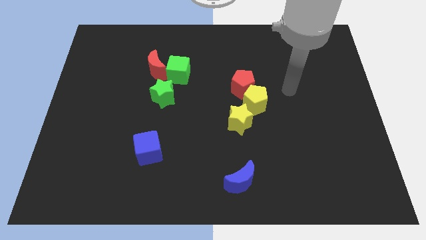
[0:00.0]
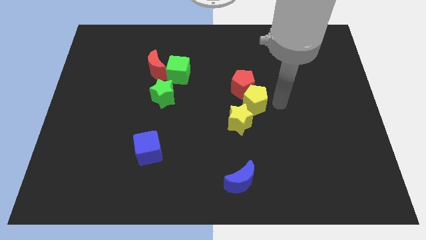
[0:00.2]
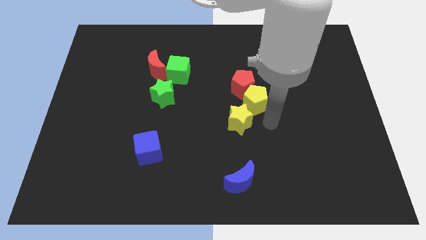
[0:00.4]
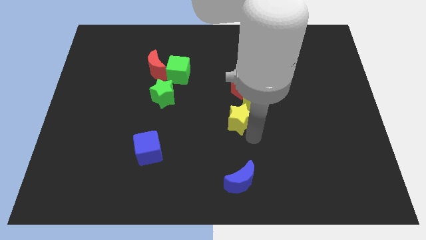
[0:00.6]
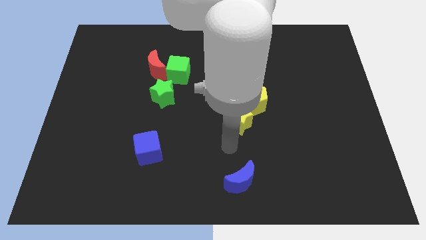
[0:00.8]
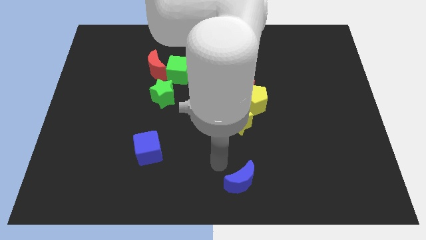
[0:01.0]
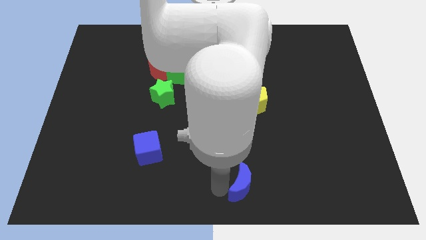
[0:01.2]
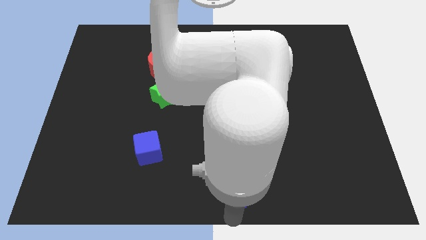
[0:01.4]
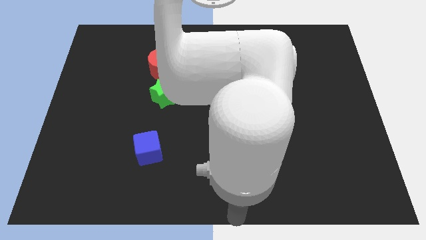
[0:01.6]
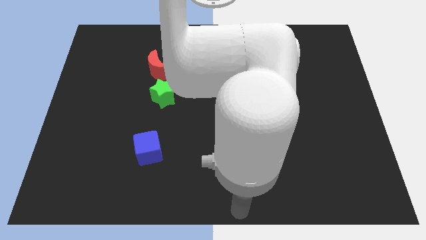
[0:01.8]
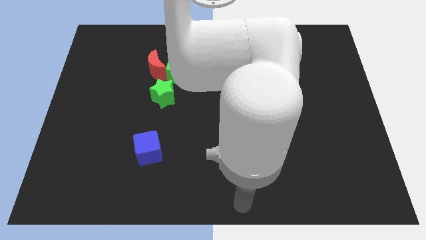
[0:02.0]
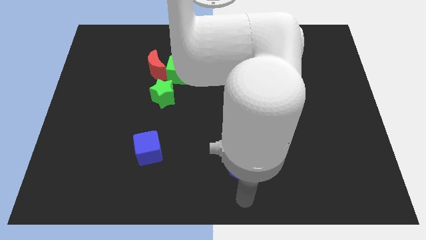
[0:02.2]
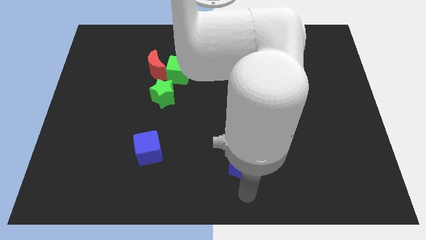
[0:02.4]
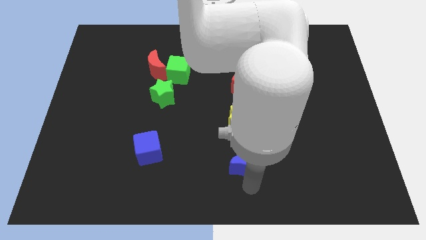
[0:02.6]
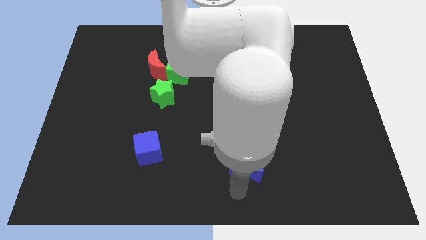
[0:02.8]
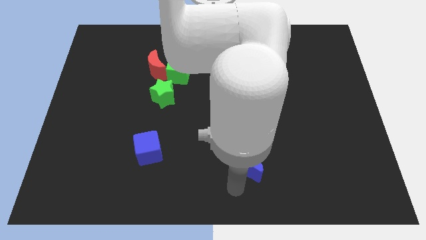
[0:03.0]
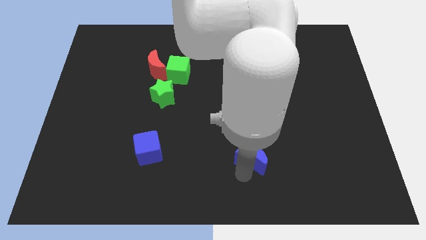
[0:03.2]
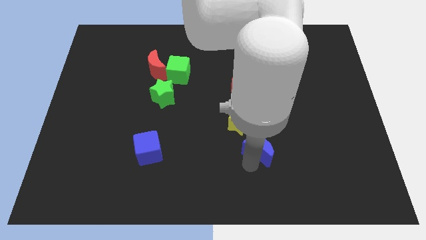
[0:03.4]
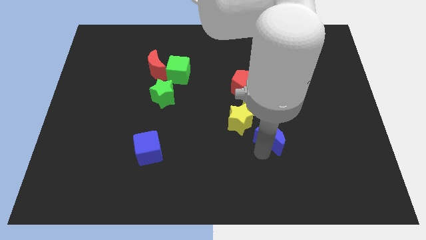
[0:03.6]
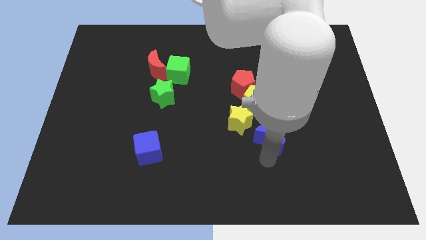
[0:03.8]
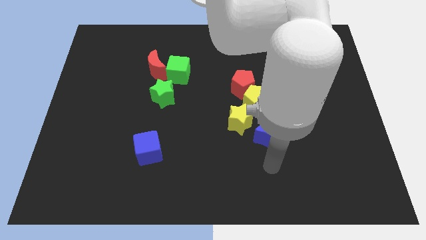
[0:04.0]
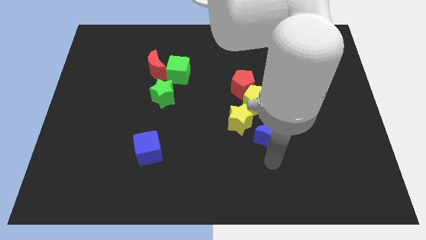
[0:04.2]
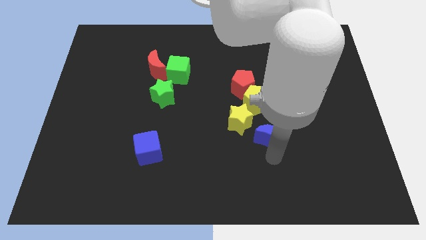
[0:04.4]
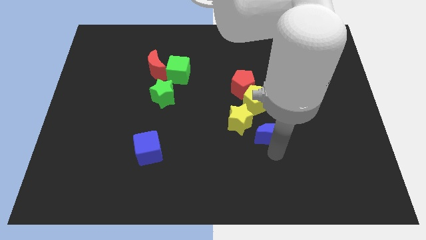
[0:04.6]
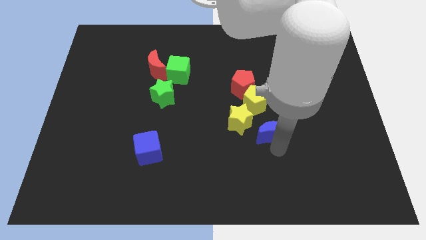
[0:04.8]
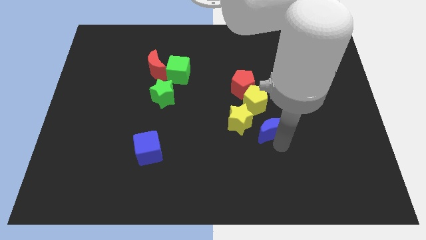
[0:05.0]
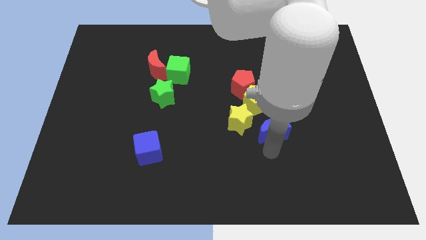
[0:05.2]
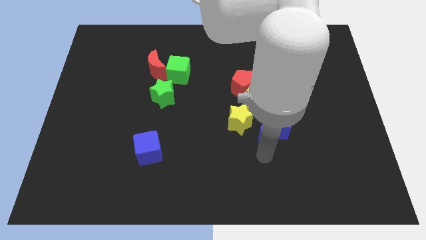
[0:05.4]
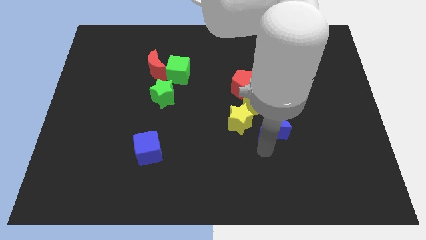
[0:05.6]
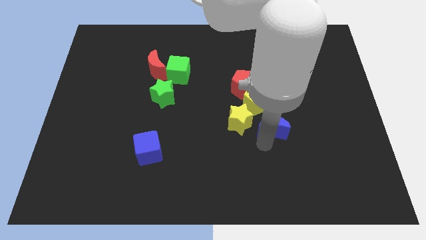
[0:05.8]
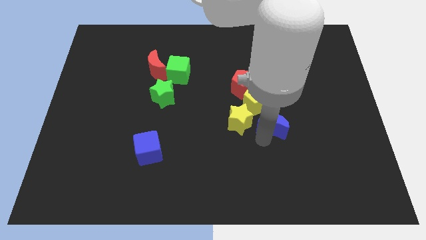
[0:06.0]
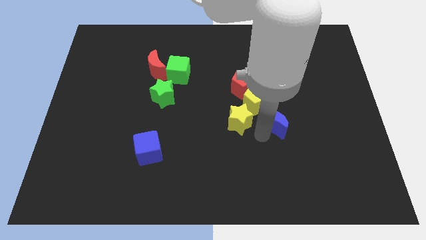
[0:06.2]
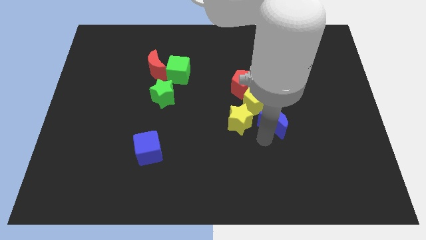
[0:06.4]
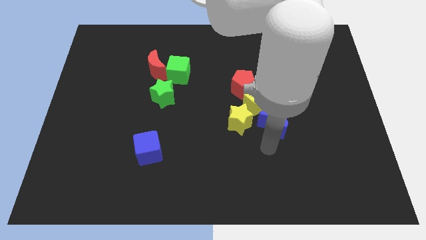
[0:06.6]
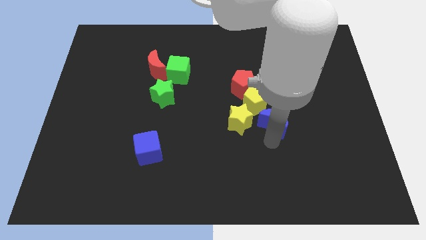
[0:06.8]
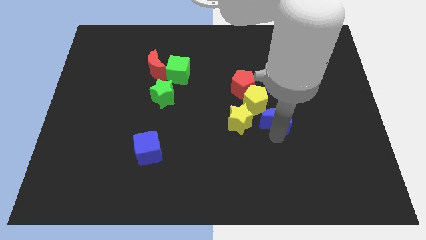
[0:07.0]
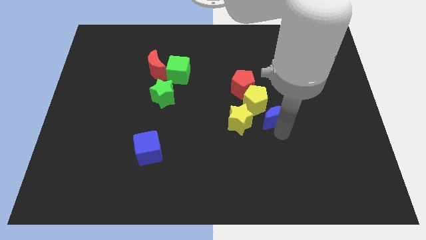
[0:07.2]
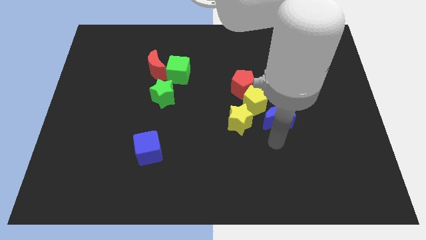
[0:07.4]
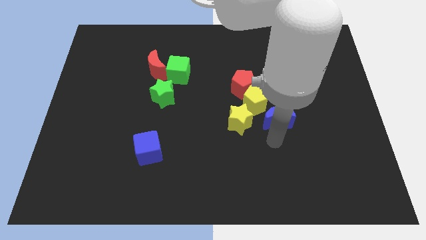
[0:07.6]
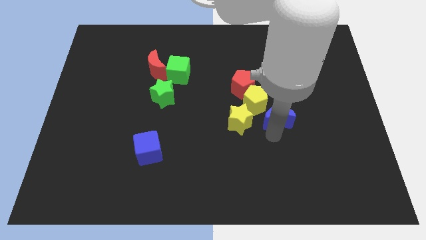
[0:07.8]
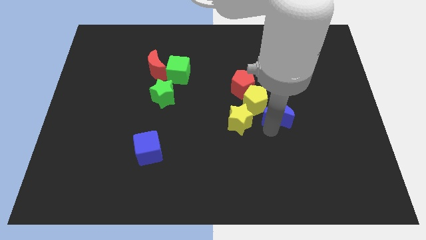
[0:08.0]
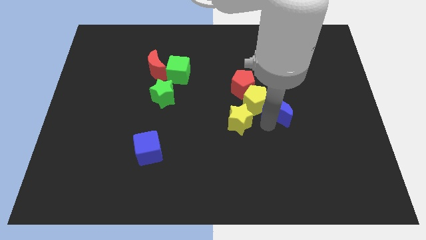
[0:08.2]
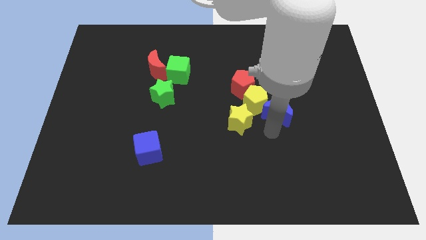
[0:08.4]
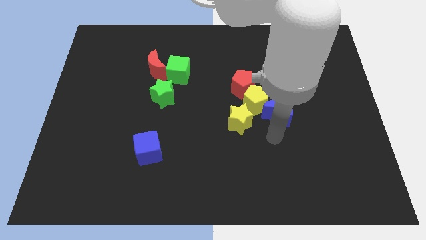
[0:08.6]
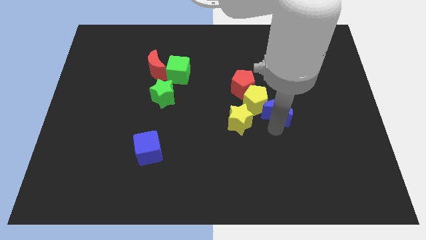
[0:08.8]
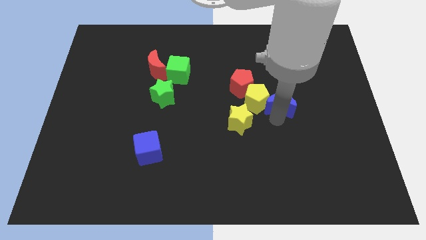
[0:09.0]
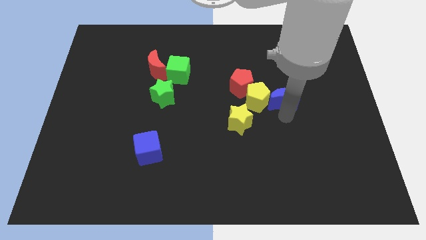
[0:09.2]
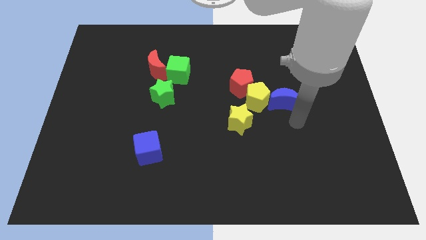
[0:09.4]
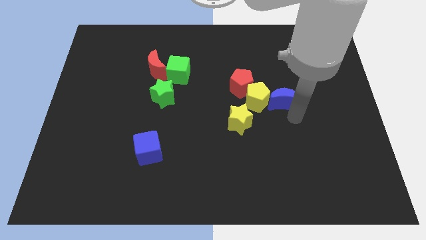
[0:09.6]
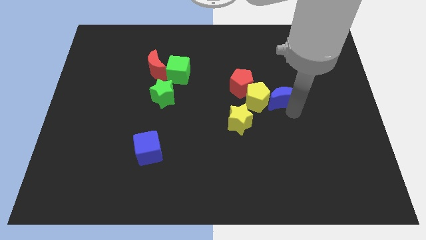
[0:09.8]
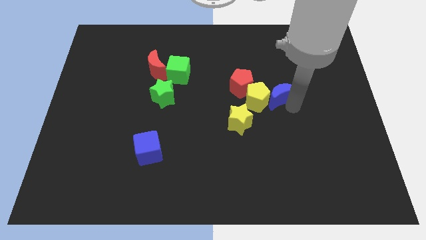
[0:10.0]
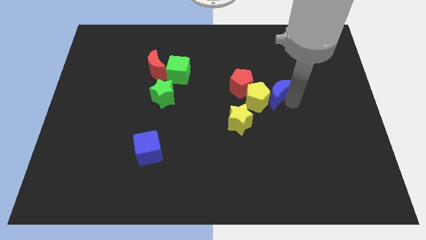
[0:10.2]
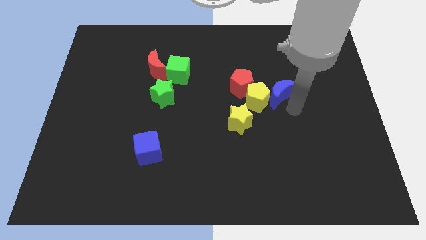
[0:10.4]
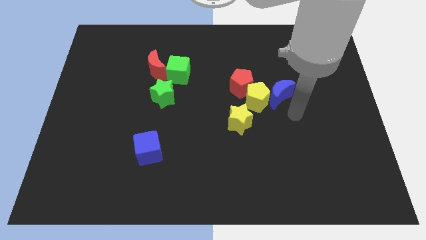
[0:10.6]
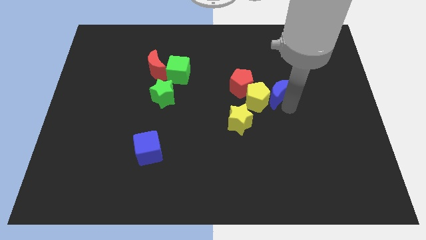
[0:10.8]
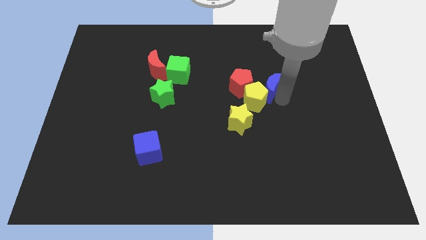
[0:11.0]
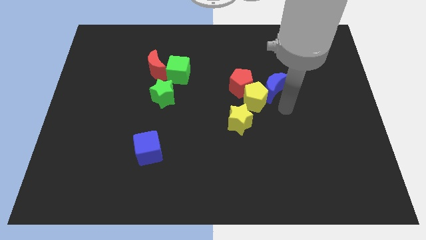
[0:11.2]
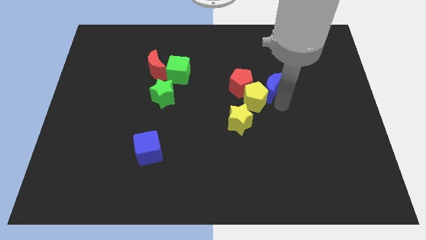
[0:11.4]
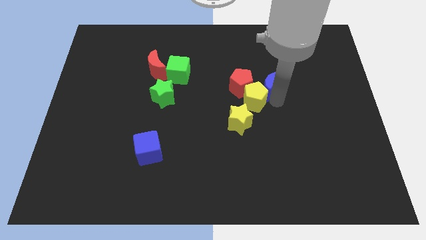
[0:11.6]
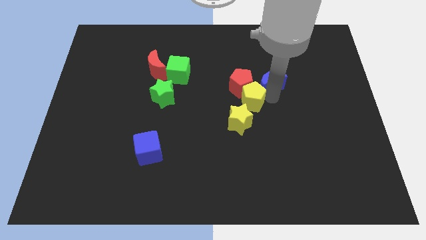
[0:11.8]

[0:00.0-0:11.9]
move the blue moon to the top right of the red pentagon
